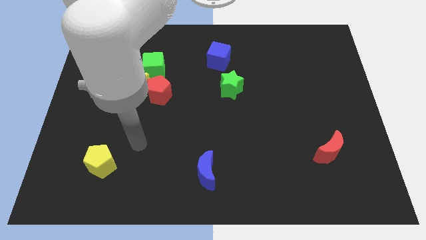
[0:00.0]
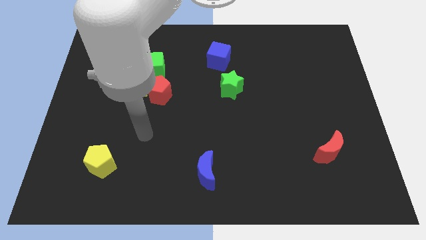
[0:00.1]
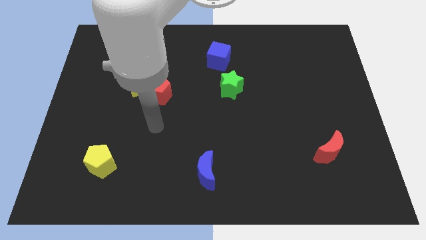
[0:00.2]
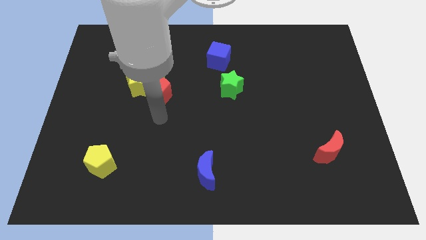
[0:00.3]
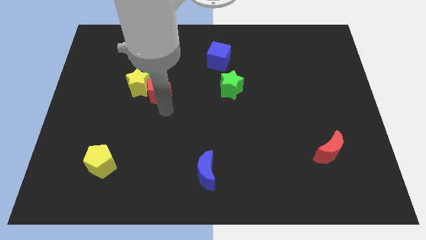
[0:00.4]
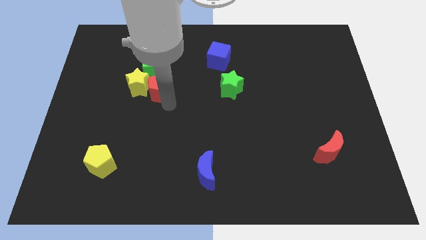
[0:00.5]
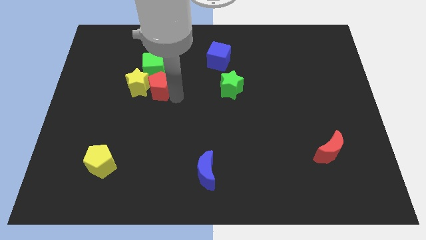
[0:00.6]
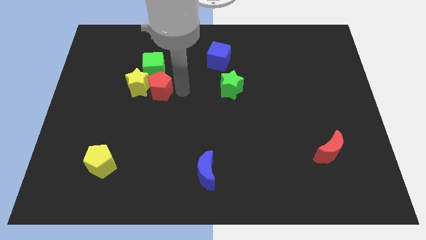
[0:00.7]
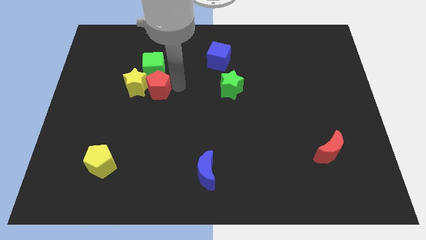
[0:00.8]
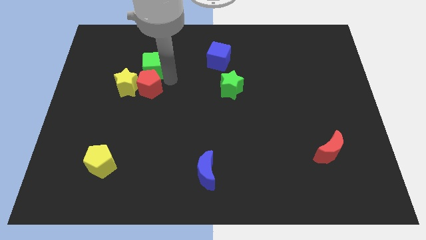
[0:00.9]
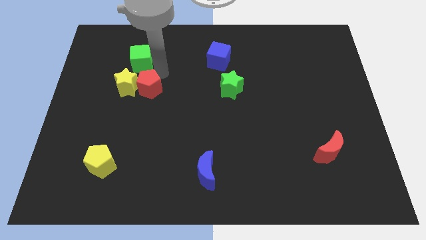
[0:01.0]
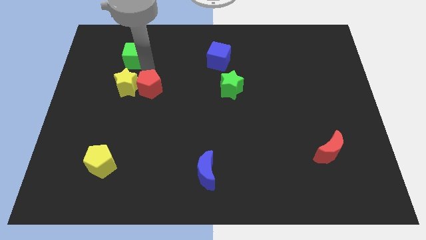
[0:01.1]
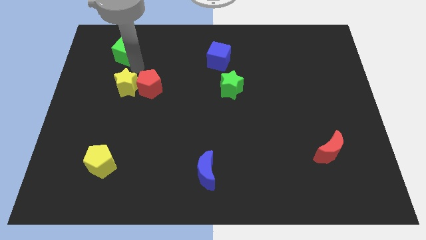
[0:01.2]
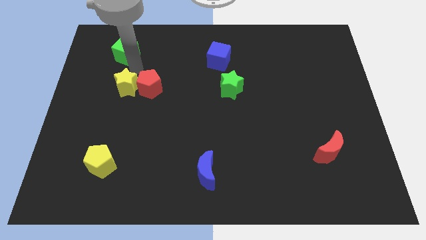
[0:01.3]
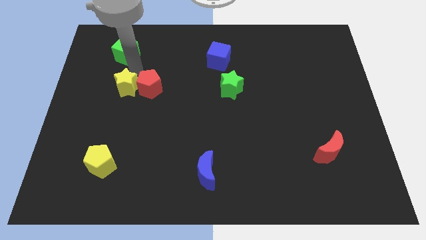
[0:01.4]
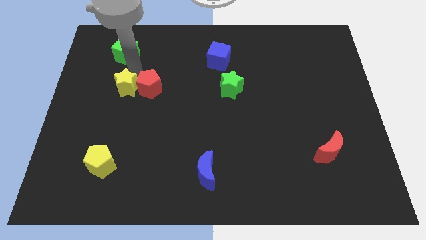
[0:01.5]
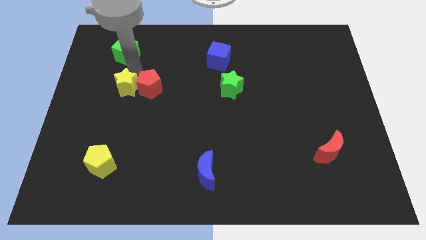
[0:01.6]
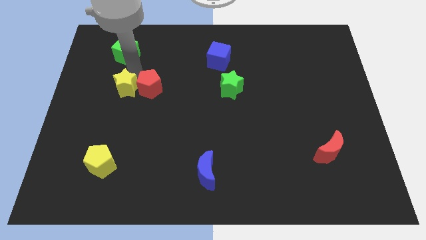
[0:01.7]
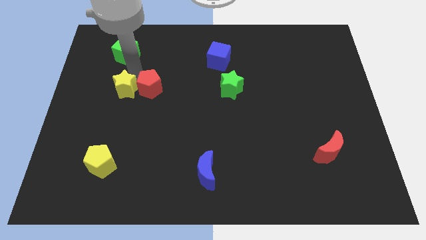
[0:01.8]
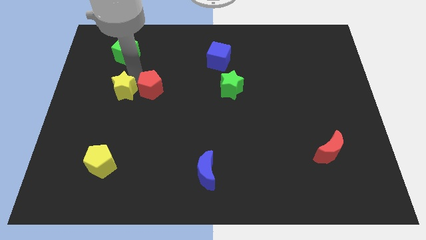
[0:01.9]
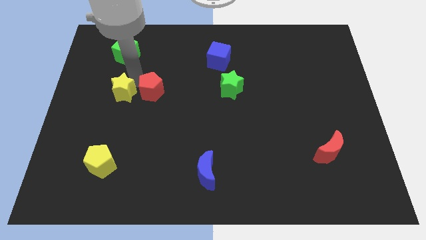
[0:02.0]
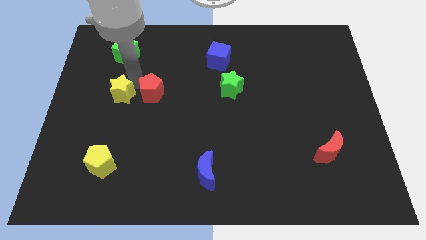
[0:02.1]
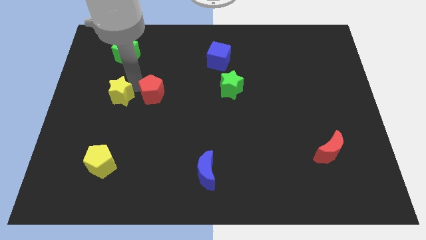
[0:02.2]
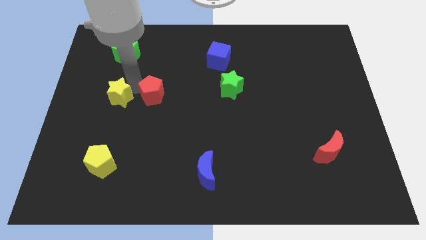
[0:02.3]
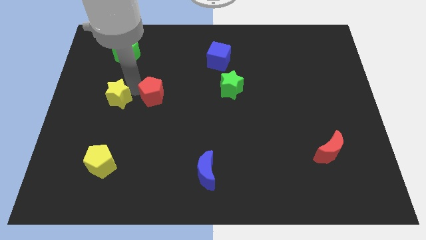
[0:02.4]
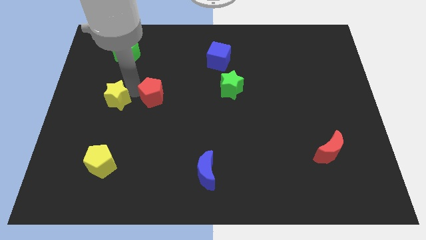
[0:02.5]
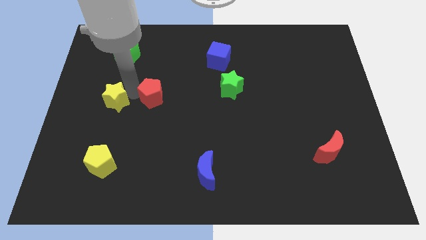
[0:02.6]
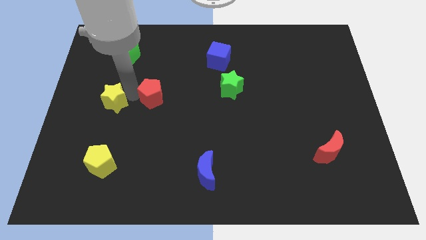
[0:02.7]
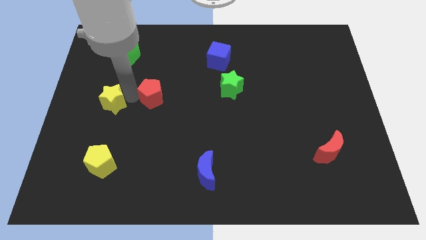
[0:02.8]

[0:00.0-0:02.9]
separate the yellow star from the red pentagon and green cube

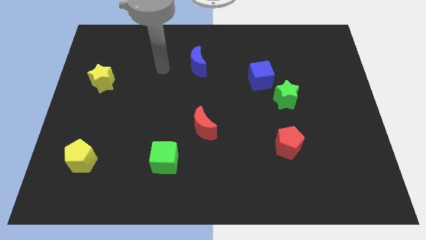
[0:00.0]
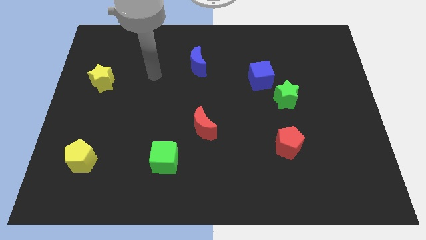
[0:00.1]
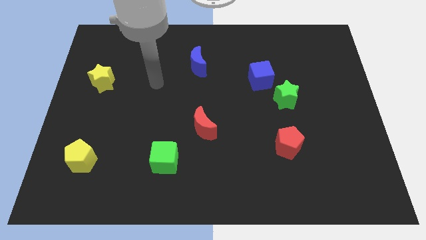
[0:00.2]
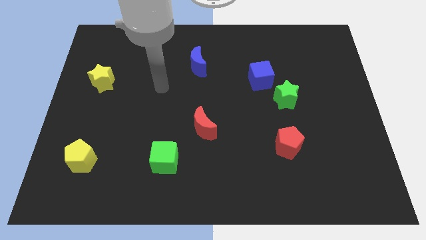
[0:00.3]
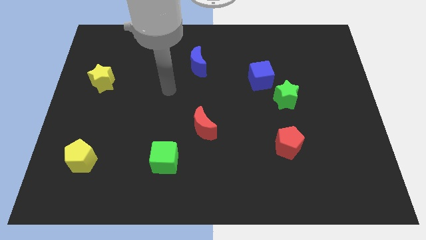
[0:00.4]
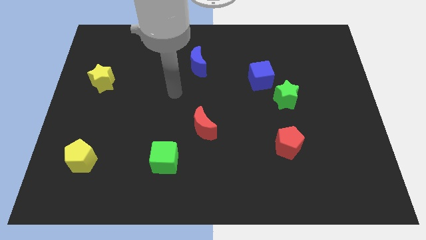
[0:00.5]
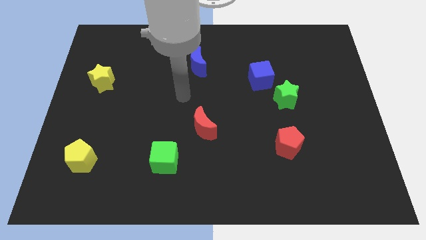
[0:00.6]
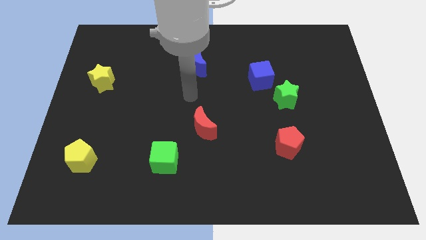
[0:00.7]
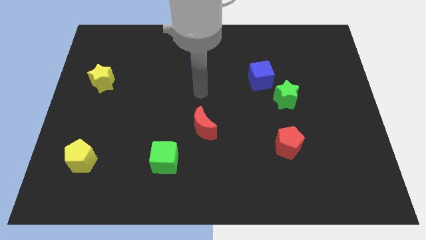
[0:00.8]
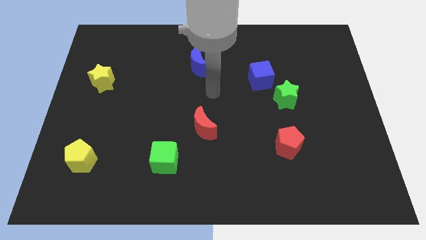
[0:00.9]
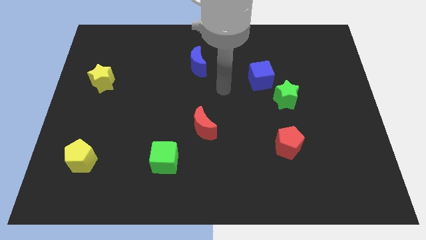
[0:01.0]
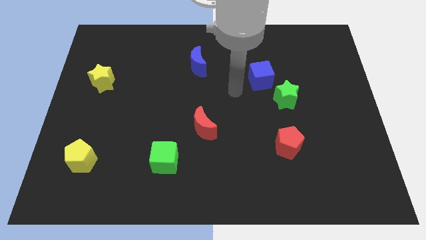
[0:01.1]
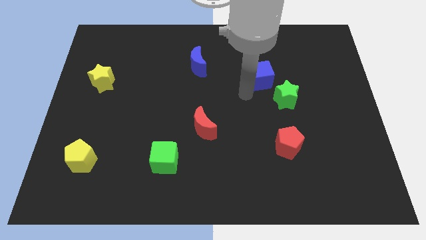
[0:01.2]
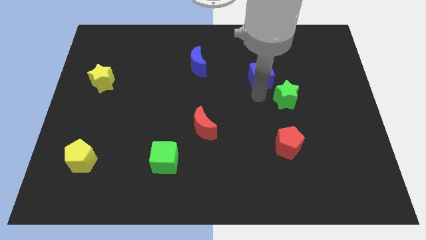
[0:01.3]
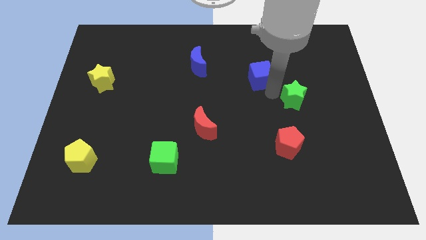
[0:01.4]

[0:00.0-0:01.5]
pull the blue cube apart from the green star

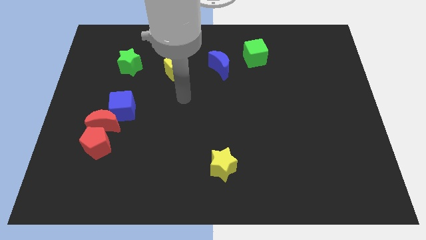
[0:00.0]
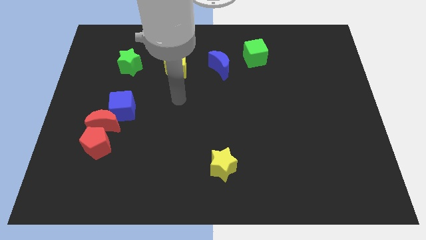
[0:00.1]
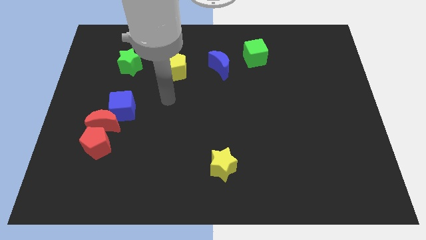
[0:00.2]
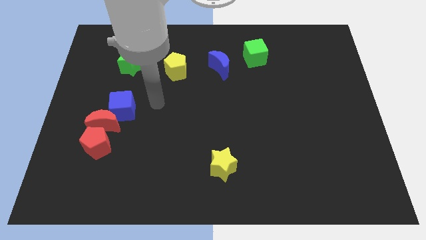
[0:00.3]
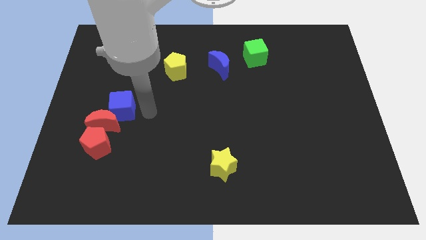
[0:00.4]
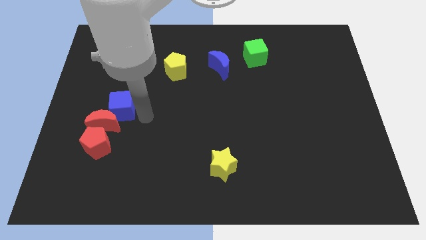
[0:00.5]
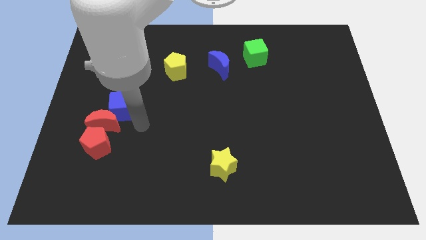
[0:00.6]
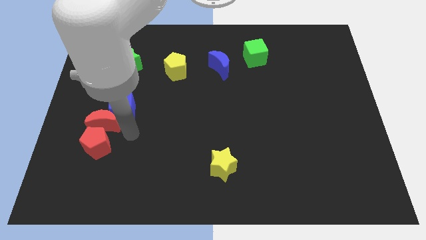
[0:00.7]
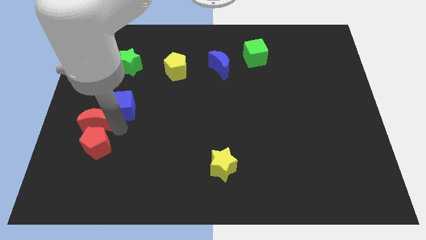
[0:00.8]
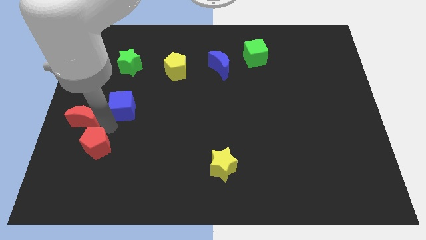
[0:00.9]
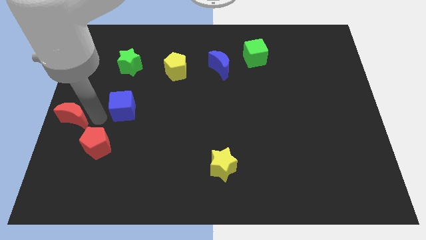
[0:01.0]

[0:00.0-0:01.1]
pull the blue cube apart from the red moon

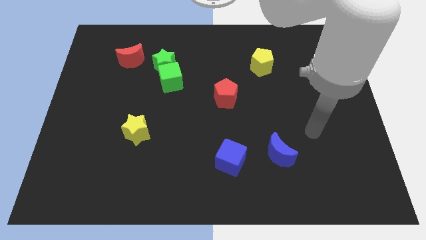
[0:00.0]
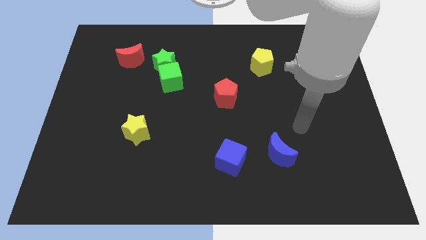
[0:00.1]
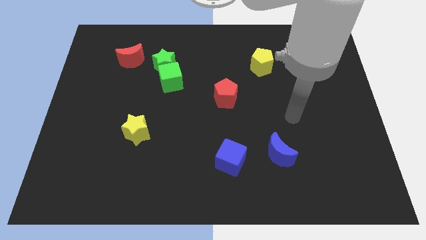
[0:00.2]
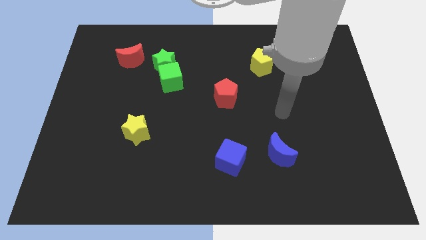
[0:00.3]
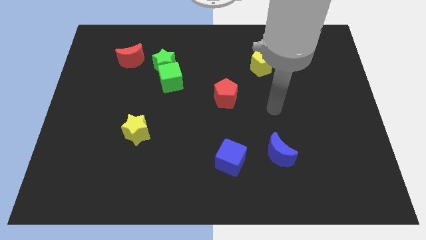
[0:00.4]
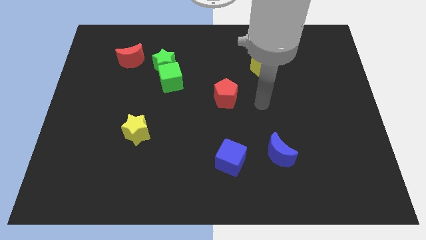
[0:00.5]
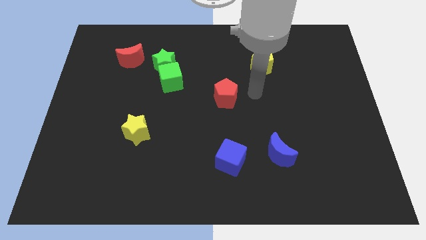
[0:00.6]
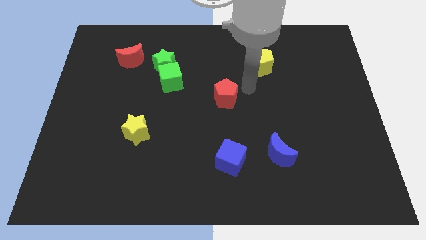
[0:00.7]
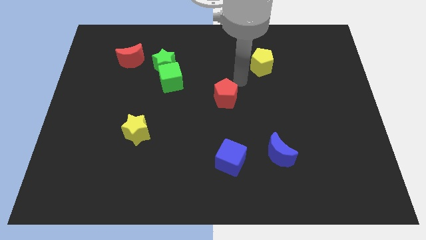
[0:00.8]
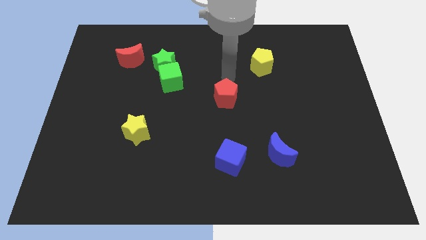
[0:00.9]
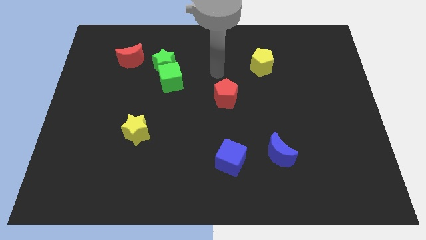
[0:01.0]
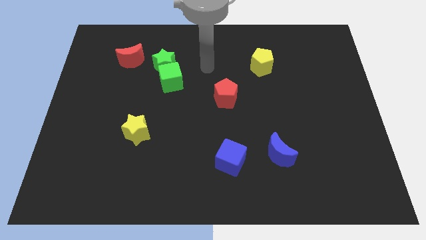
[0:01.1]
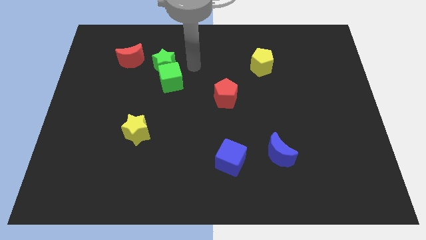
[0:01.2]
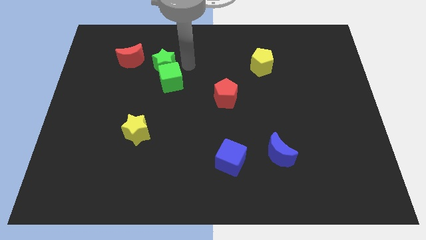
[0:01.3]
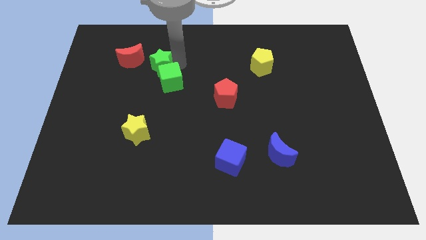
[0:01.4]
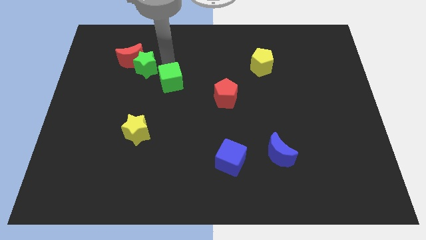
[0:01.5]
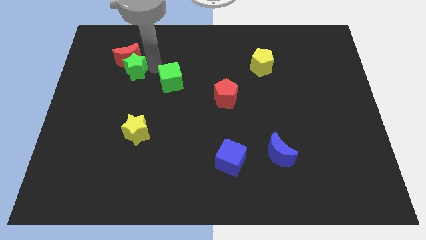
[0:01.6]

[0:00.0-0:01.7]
pull the green cube apart from the green star

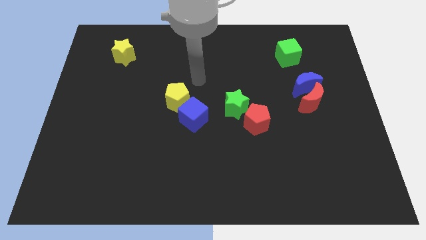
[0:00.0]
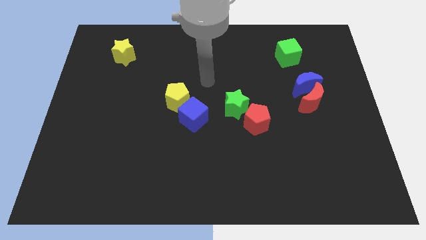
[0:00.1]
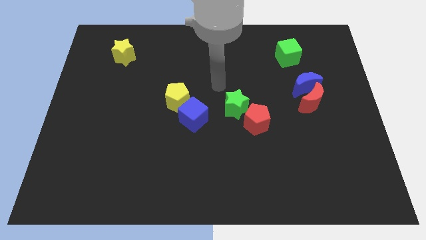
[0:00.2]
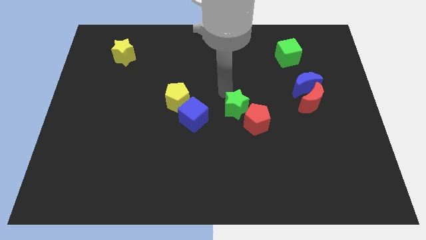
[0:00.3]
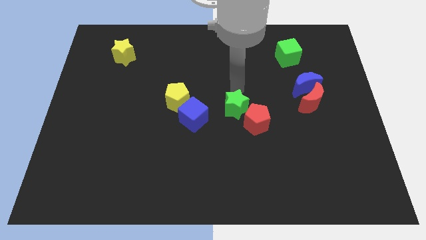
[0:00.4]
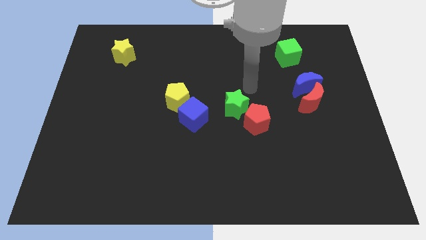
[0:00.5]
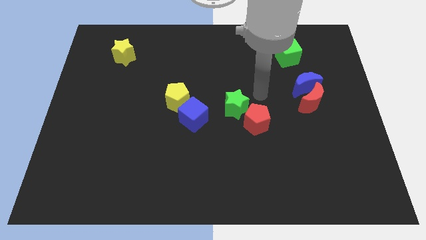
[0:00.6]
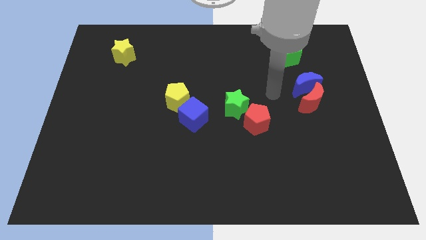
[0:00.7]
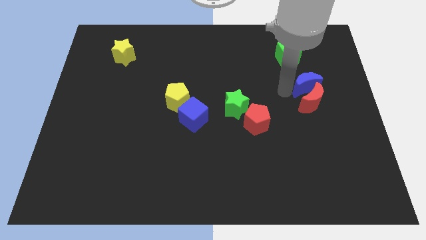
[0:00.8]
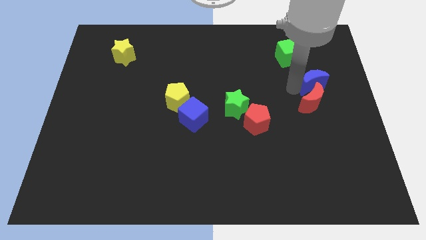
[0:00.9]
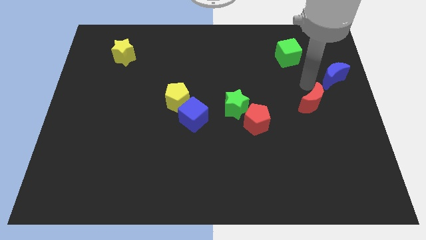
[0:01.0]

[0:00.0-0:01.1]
pull the red moon apart from the blue moon

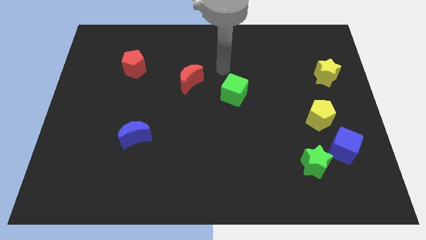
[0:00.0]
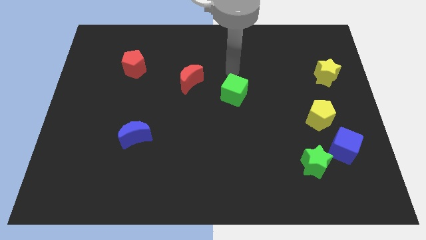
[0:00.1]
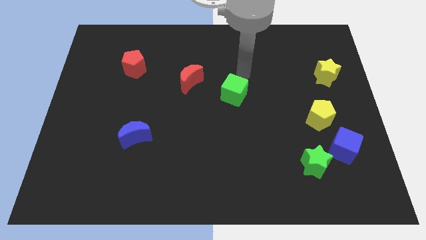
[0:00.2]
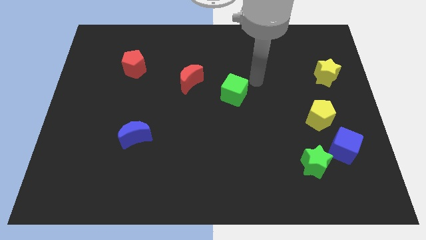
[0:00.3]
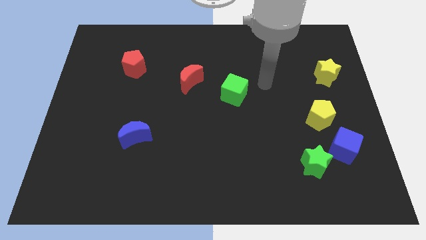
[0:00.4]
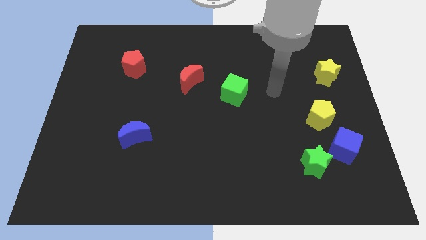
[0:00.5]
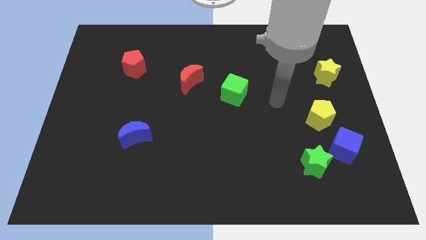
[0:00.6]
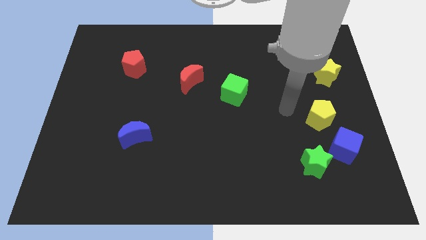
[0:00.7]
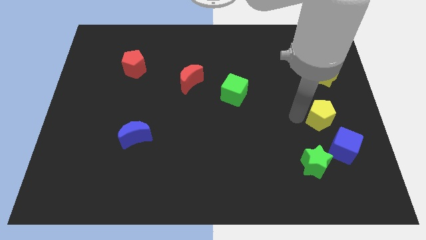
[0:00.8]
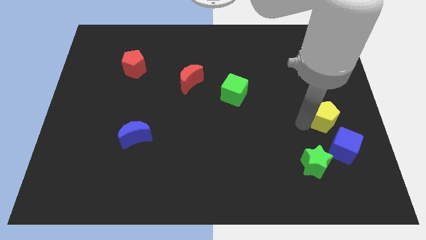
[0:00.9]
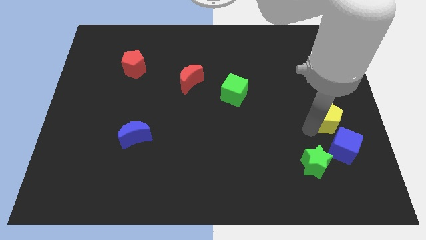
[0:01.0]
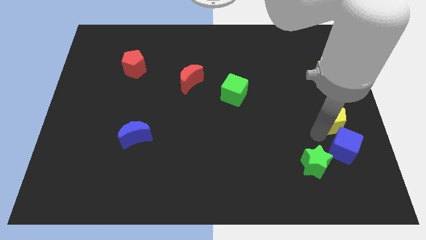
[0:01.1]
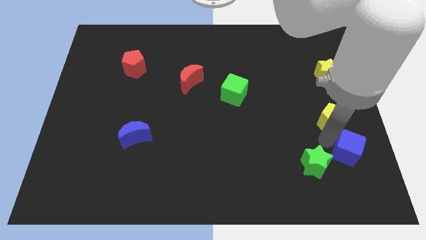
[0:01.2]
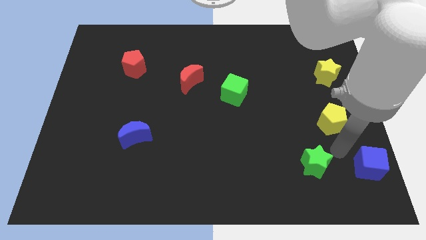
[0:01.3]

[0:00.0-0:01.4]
separate the green star from the blue cube
